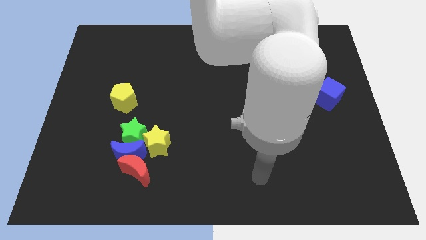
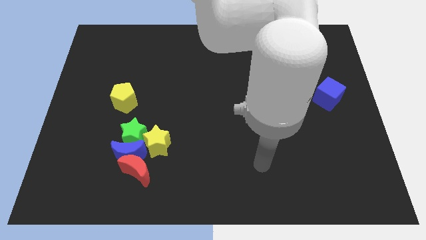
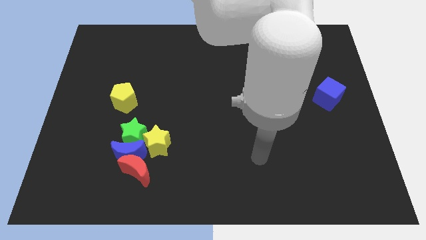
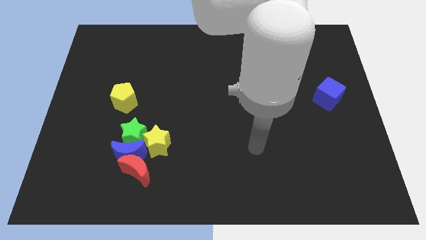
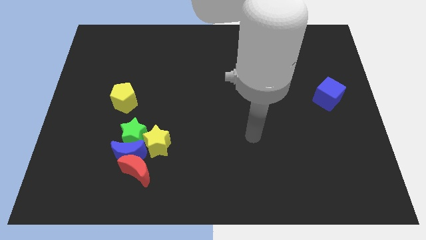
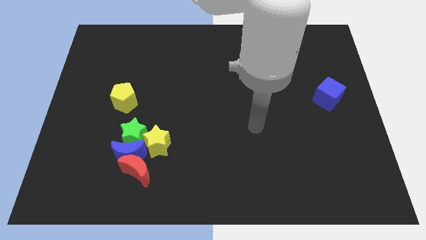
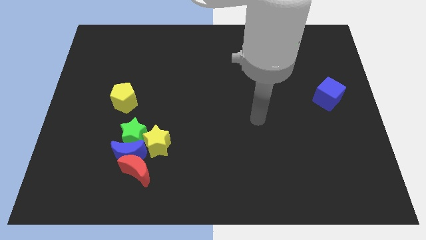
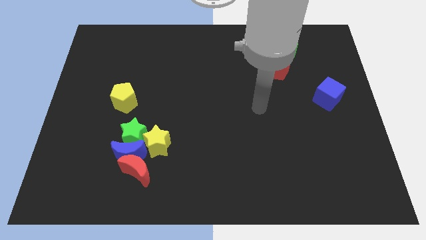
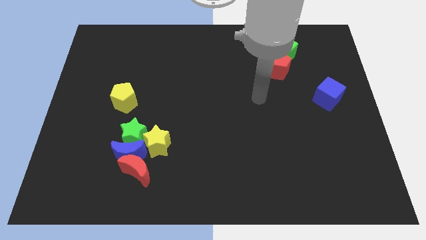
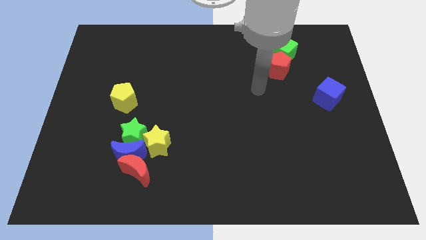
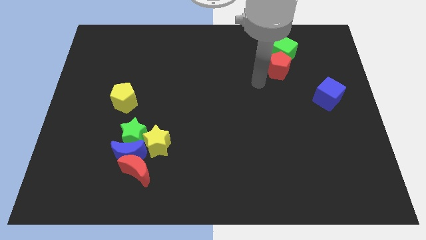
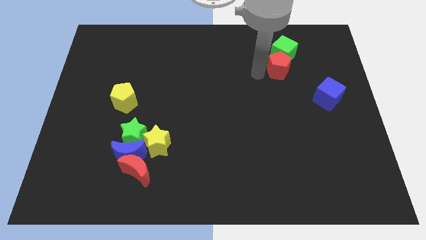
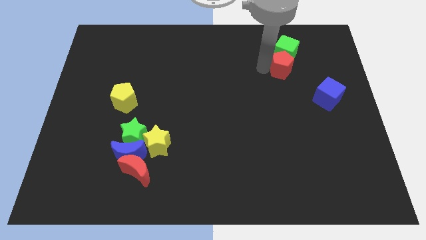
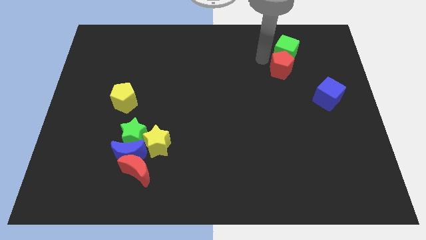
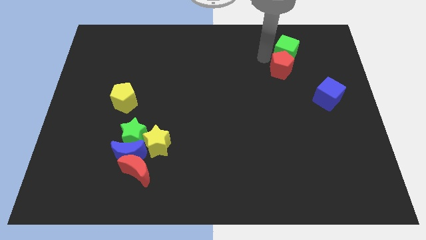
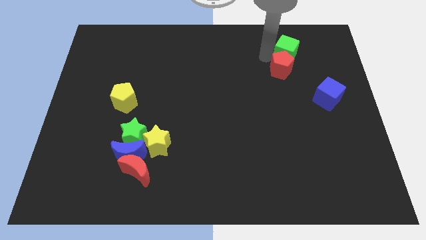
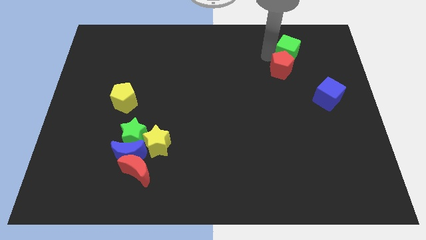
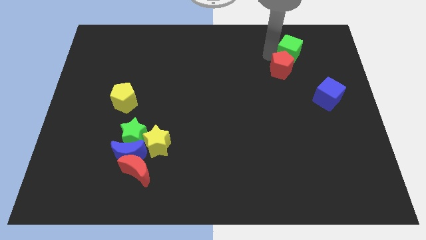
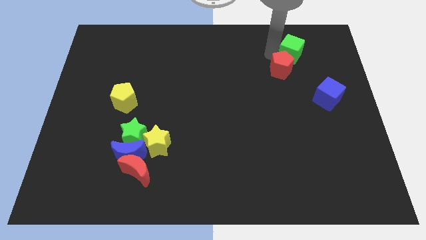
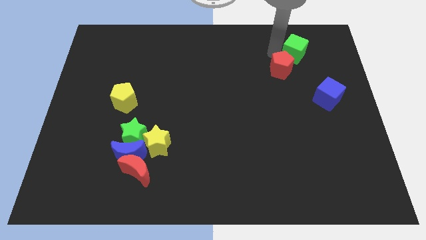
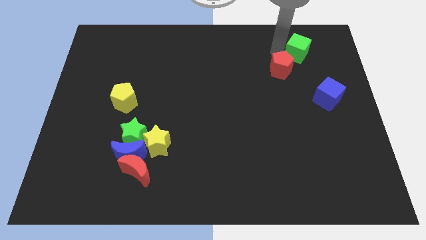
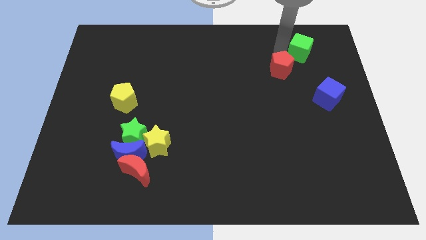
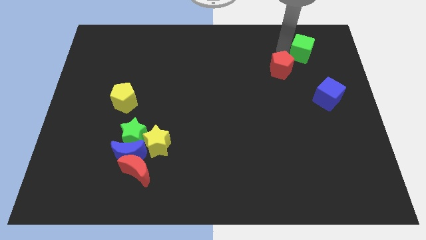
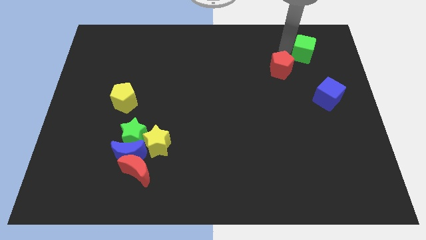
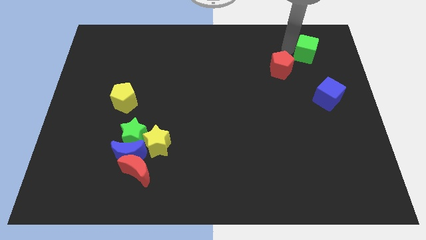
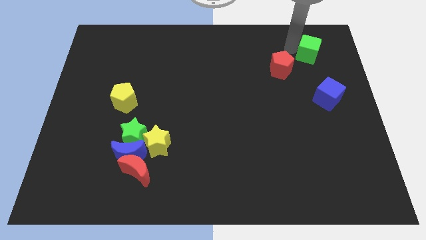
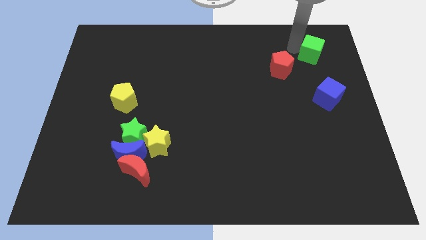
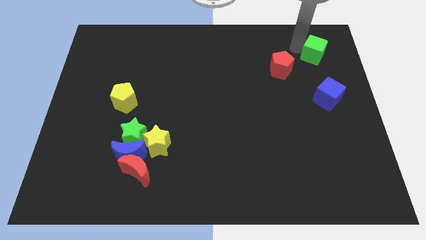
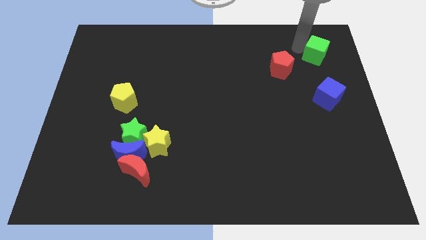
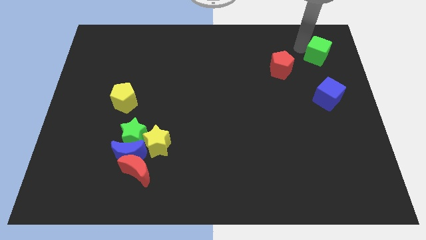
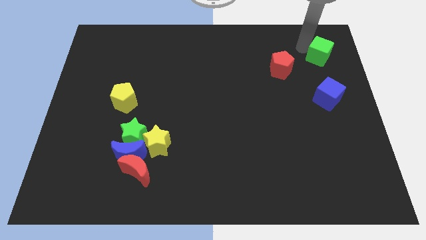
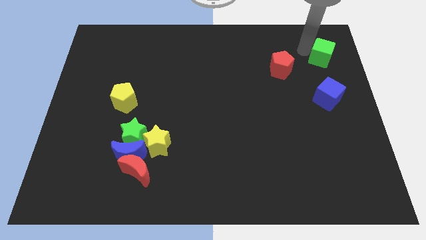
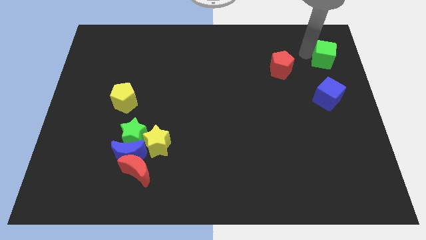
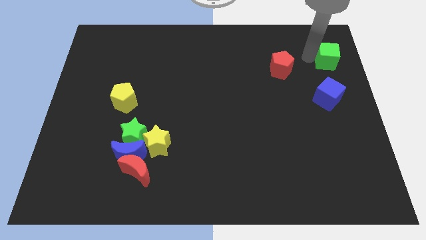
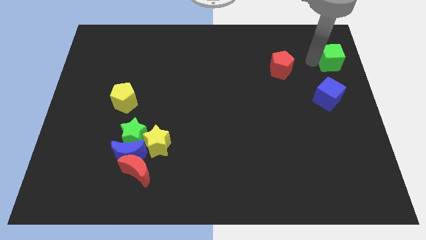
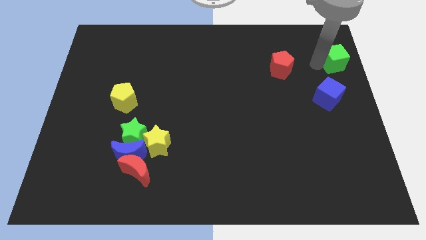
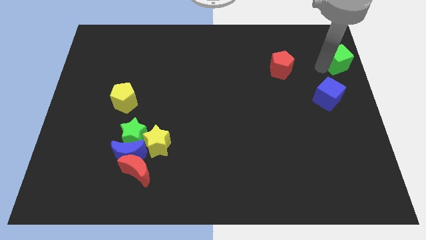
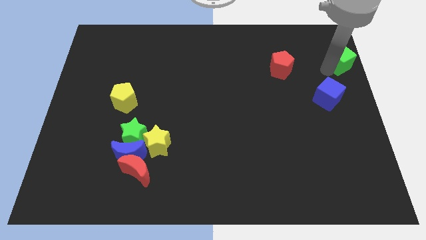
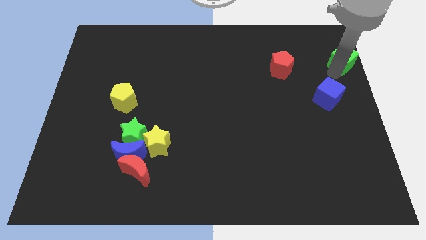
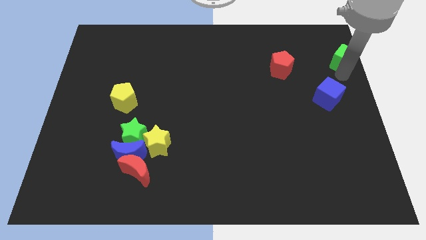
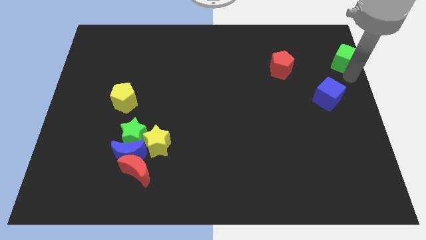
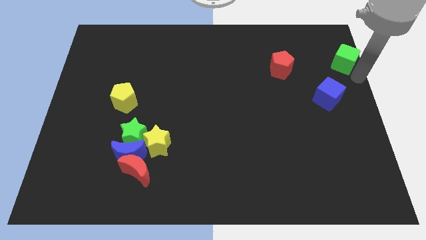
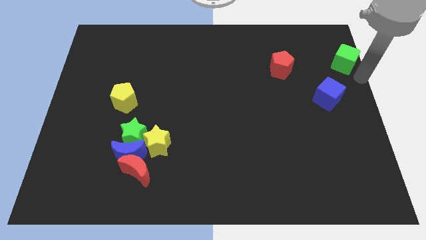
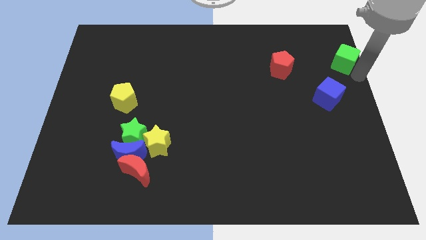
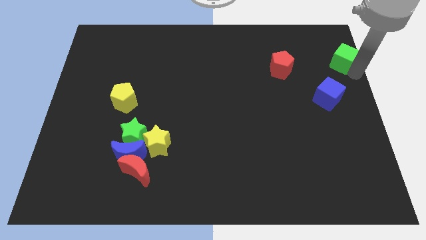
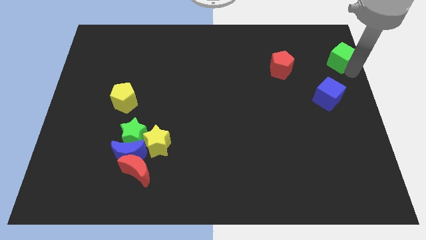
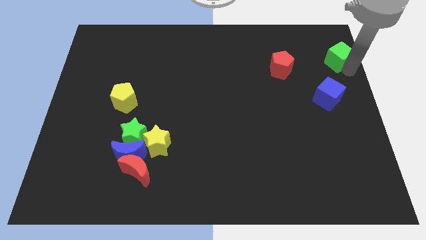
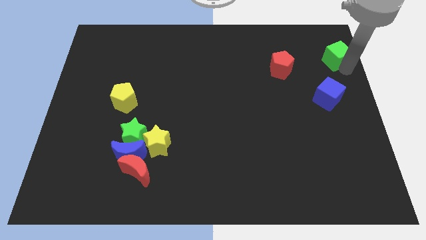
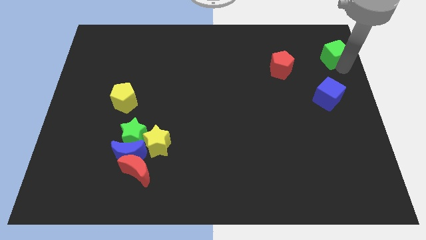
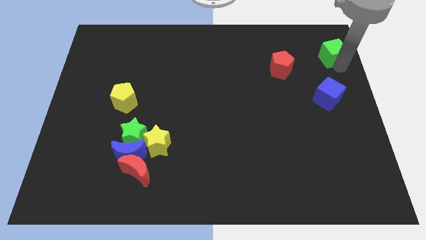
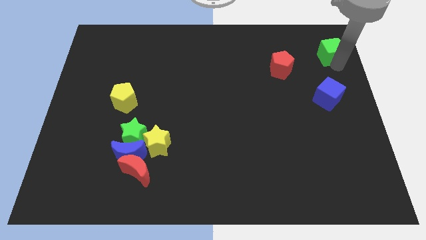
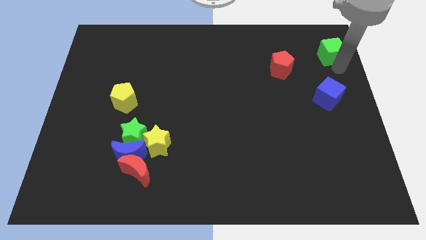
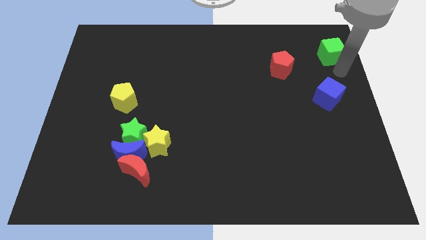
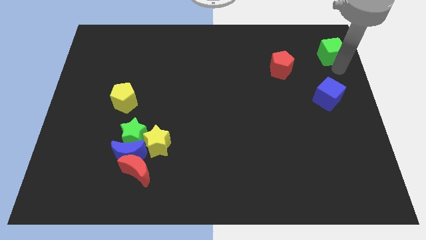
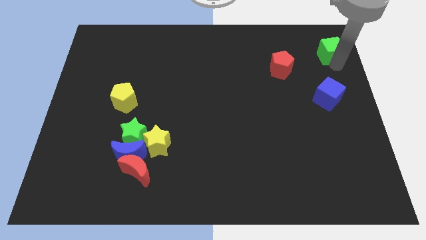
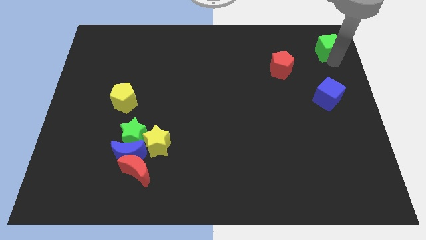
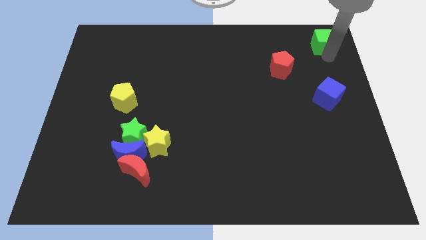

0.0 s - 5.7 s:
push the green cube to the upper right corner
